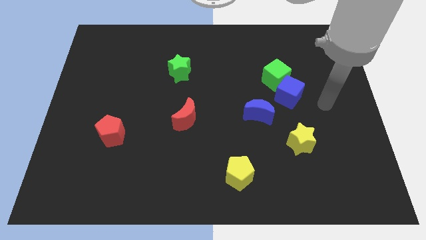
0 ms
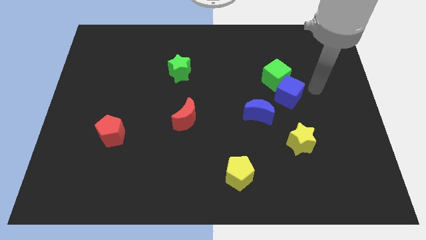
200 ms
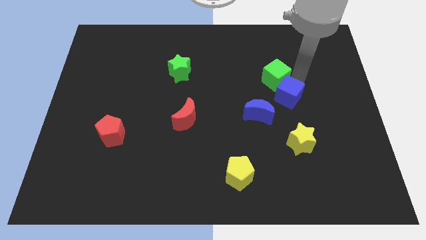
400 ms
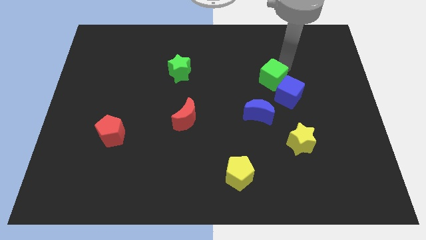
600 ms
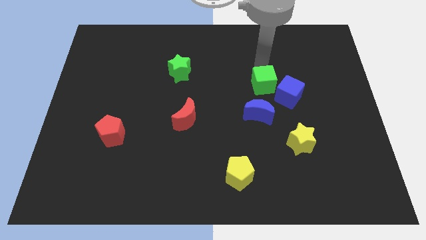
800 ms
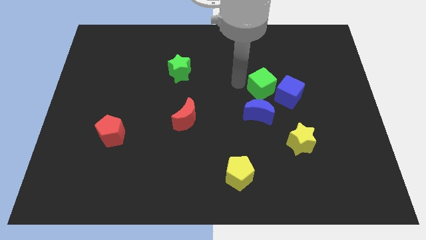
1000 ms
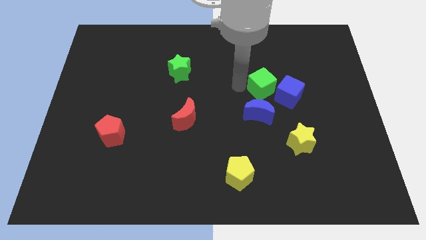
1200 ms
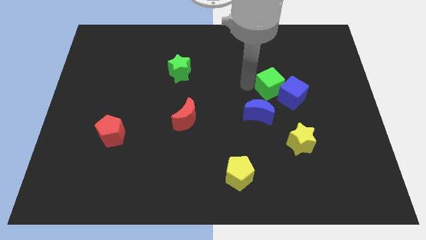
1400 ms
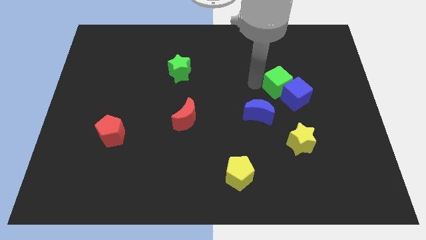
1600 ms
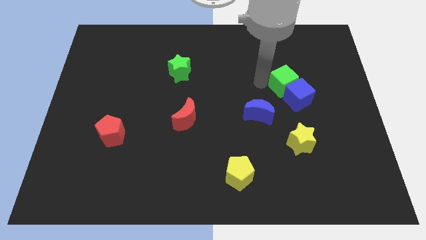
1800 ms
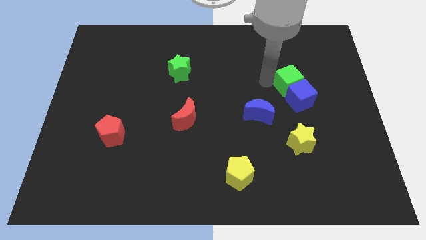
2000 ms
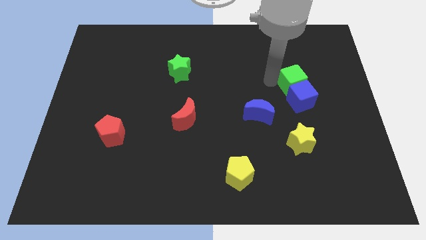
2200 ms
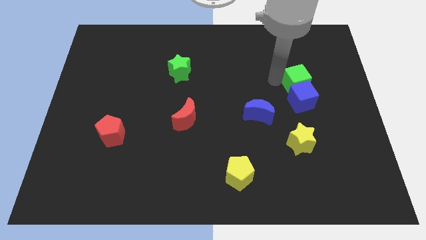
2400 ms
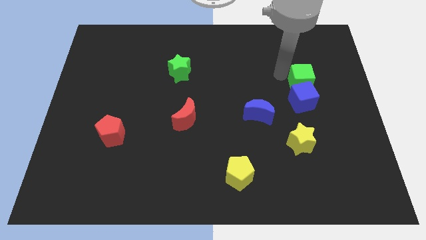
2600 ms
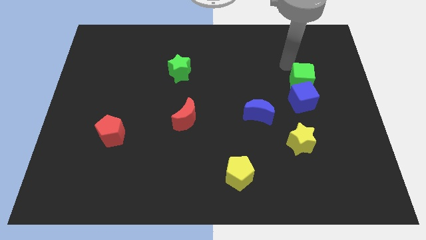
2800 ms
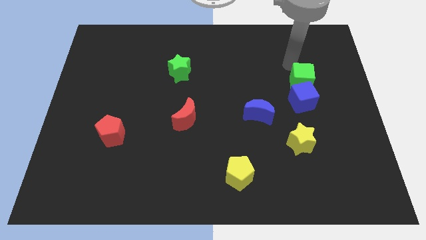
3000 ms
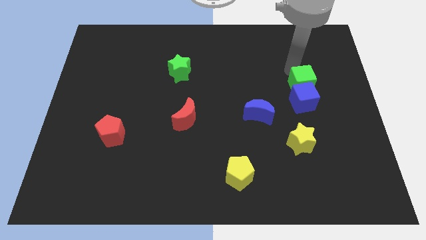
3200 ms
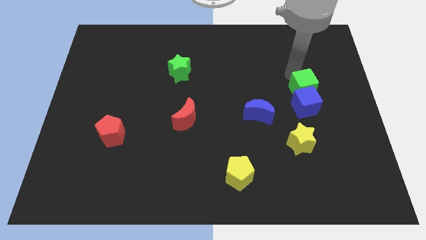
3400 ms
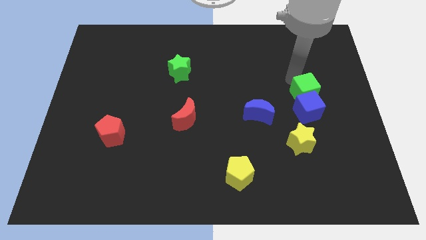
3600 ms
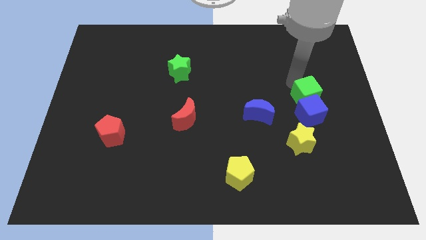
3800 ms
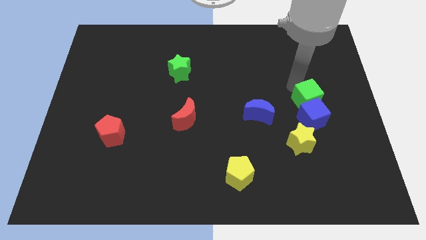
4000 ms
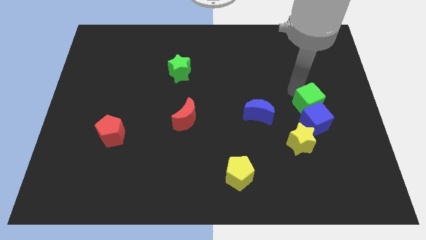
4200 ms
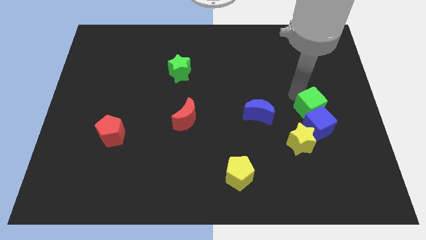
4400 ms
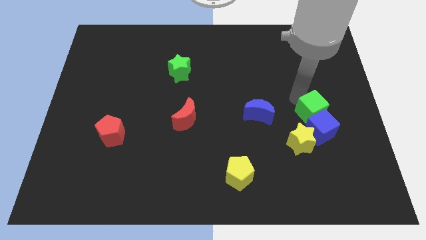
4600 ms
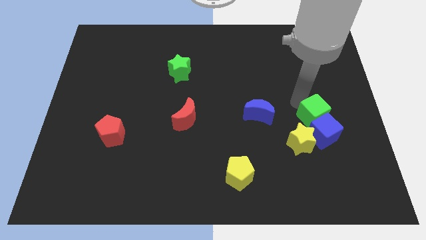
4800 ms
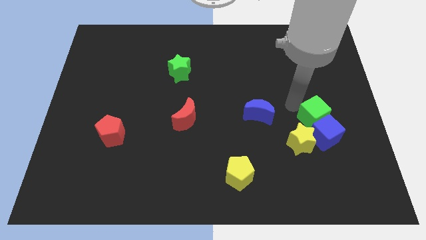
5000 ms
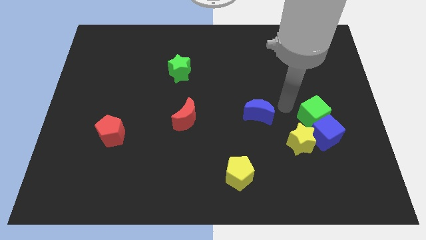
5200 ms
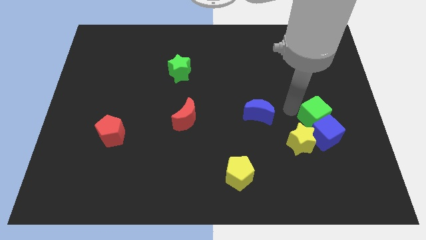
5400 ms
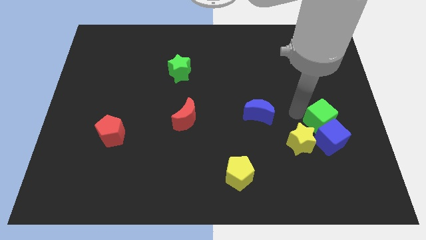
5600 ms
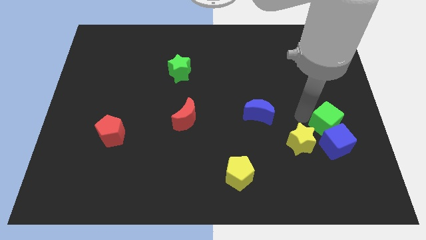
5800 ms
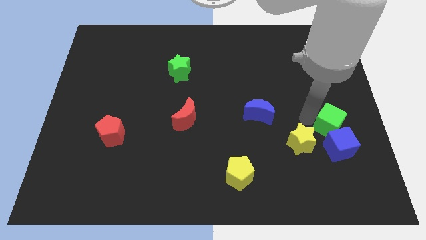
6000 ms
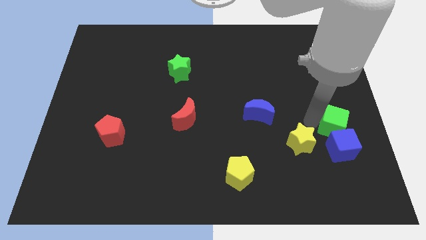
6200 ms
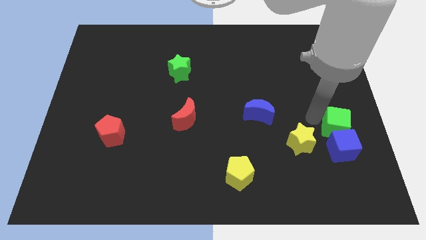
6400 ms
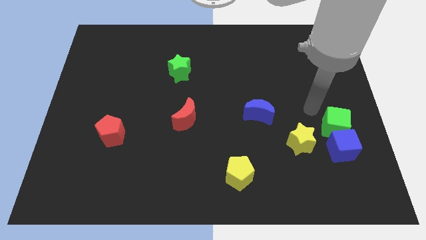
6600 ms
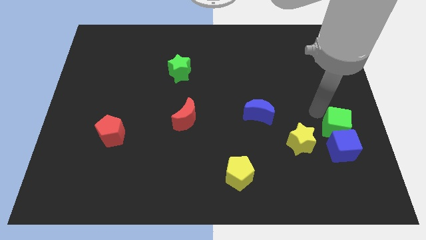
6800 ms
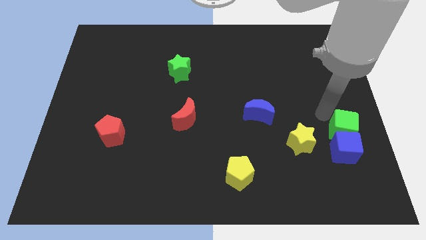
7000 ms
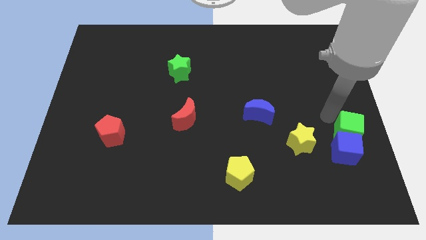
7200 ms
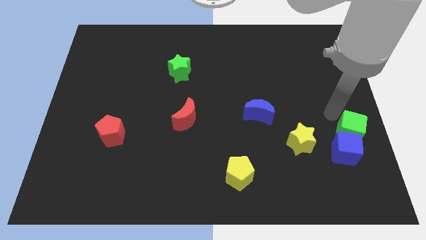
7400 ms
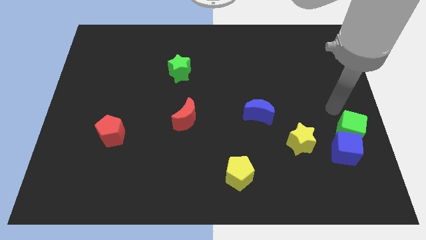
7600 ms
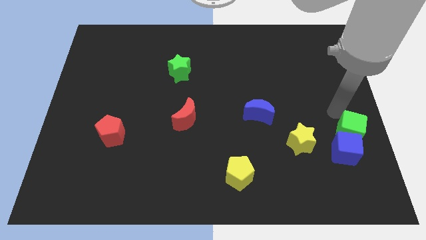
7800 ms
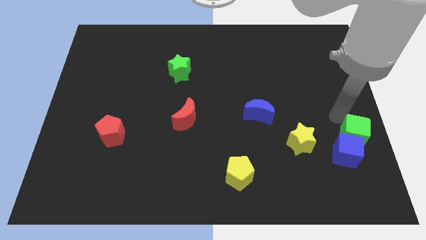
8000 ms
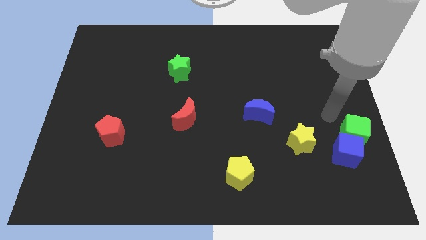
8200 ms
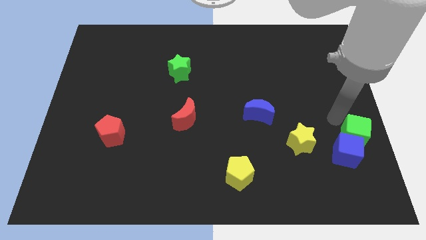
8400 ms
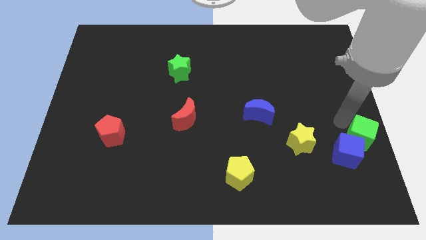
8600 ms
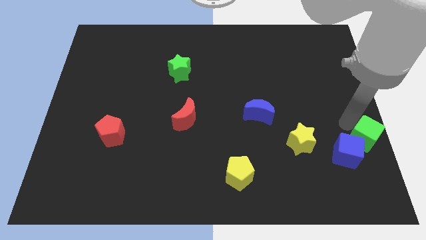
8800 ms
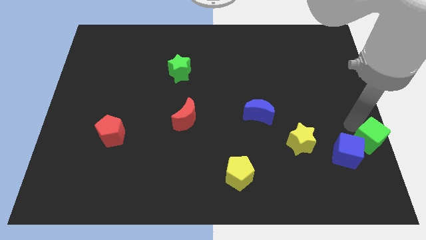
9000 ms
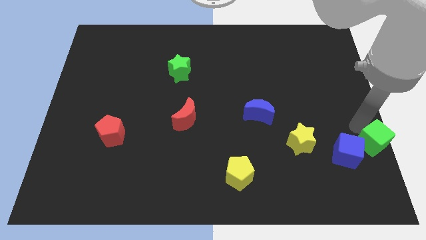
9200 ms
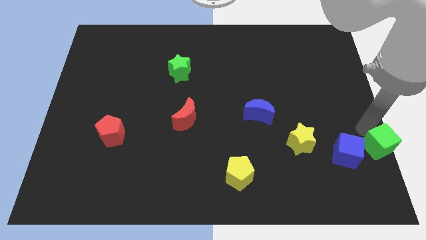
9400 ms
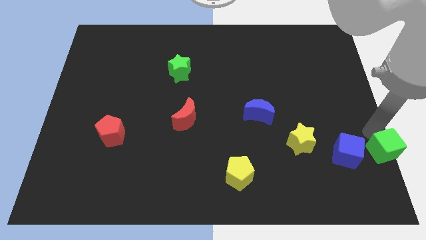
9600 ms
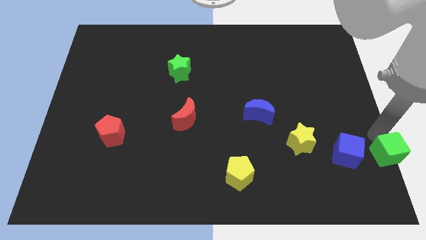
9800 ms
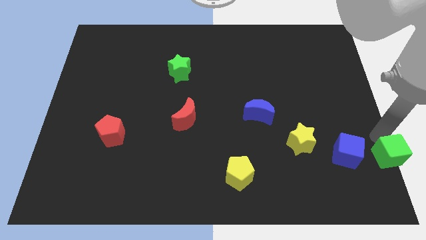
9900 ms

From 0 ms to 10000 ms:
move the green cube to the bottom right of the board

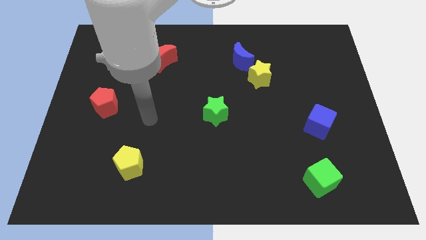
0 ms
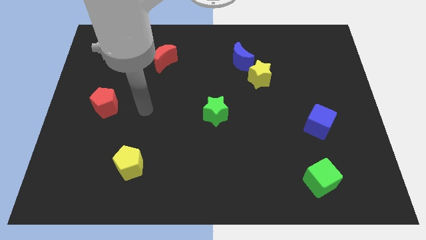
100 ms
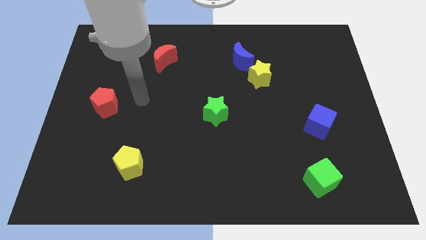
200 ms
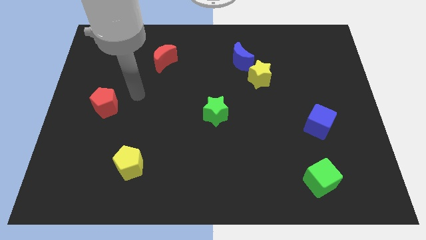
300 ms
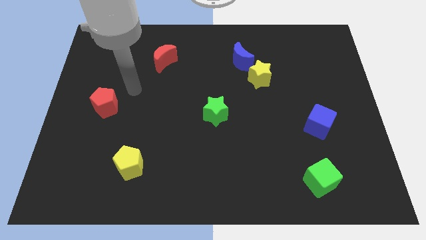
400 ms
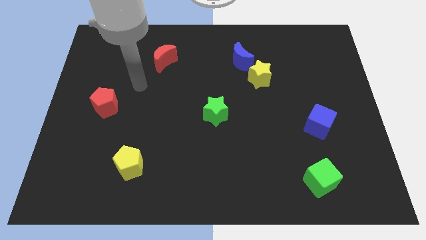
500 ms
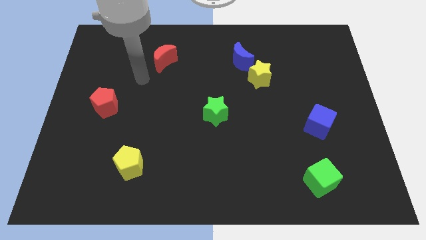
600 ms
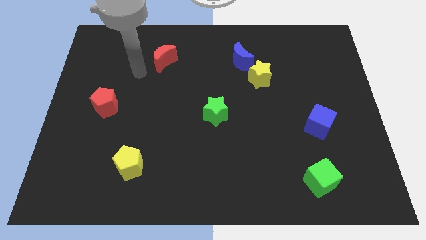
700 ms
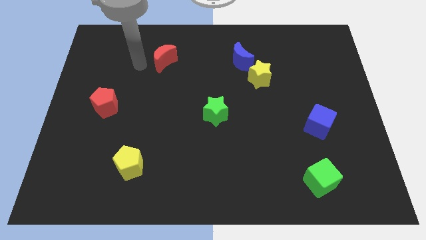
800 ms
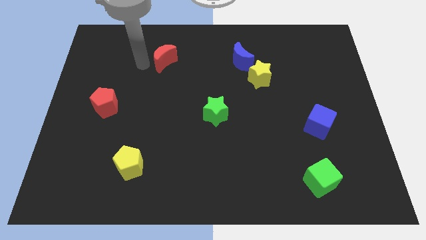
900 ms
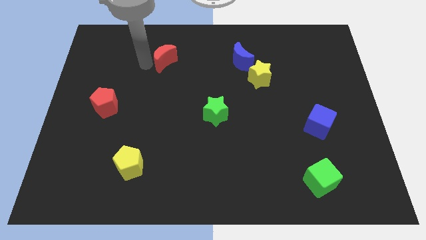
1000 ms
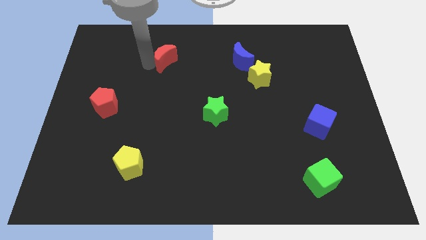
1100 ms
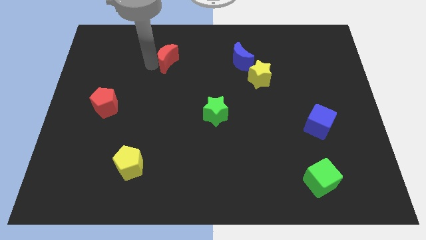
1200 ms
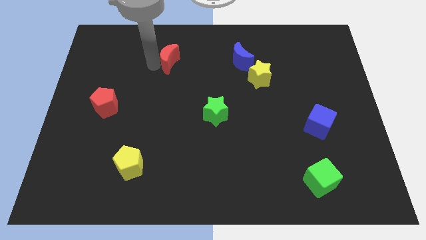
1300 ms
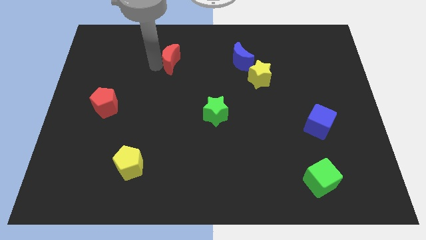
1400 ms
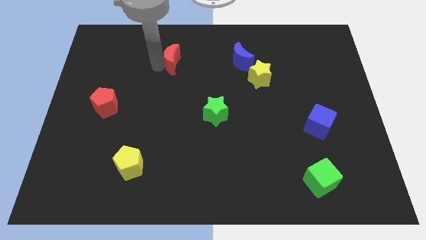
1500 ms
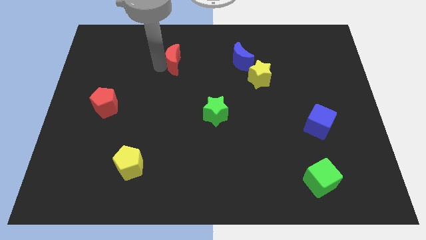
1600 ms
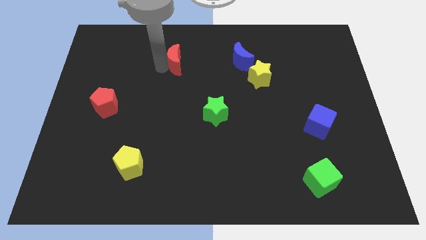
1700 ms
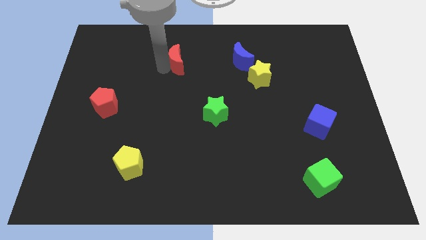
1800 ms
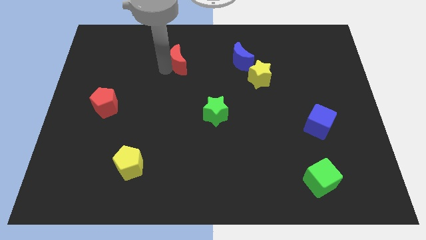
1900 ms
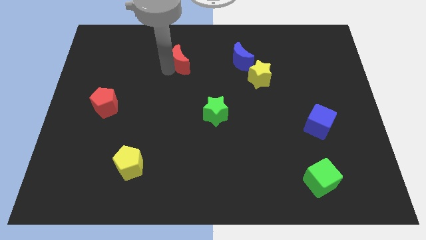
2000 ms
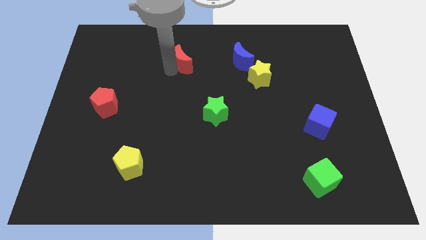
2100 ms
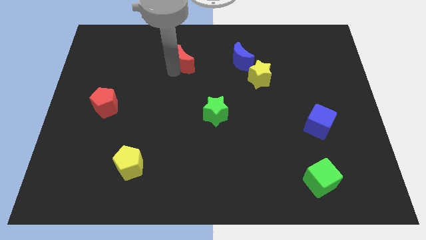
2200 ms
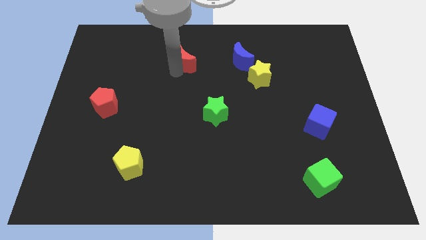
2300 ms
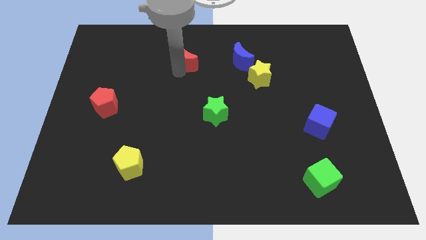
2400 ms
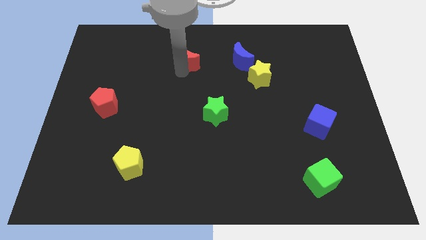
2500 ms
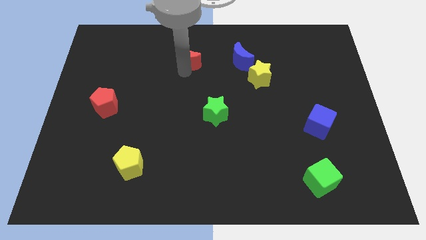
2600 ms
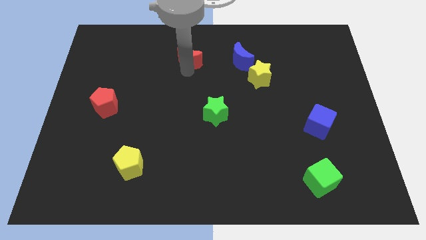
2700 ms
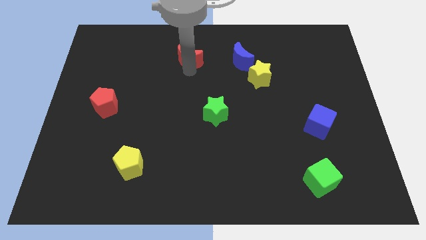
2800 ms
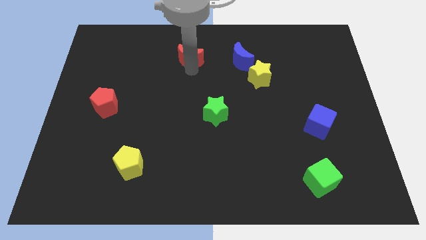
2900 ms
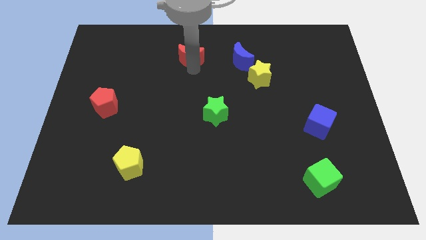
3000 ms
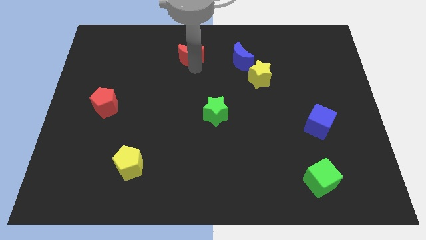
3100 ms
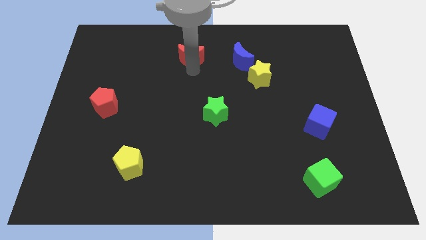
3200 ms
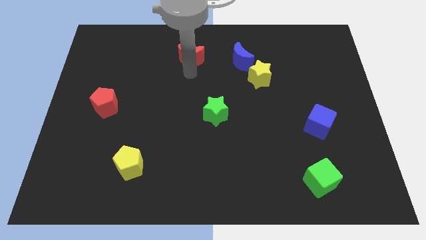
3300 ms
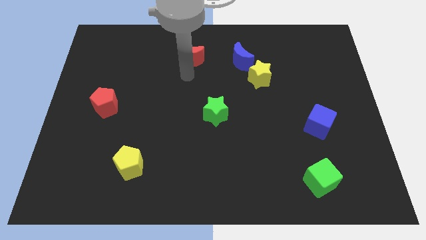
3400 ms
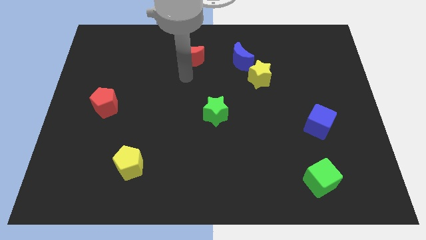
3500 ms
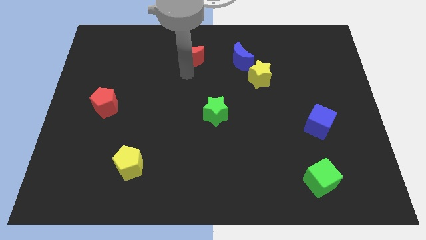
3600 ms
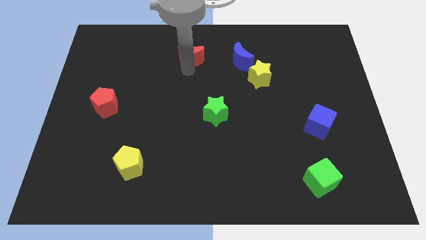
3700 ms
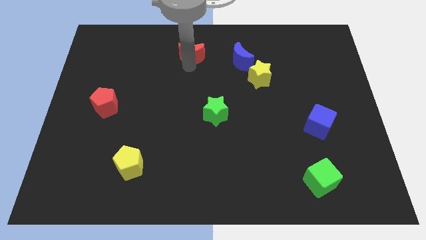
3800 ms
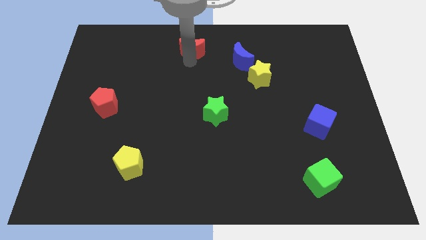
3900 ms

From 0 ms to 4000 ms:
move the red moon to the towards your base
